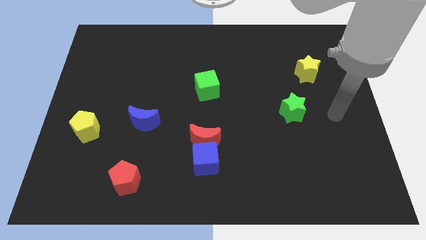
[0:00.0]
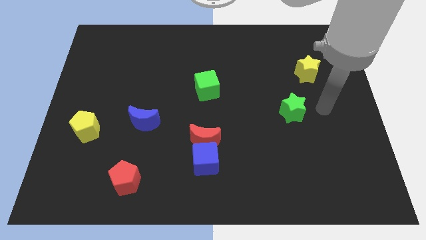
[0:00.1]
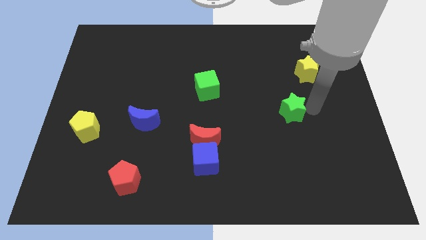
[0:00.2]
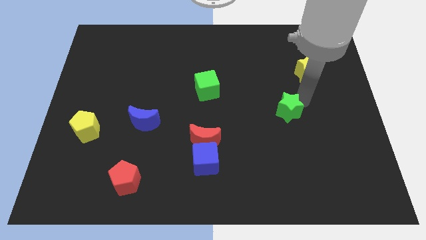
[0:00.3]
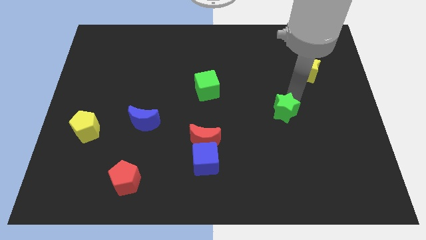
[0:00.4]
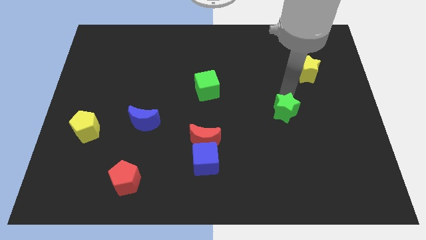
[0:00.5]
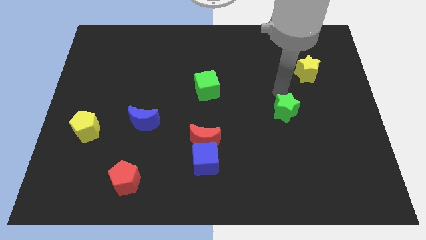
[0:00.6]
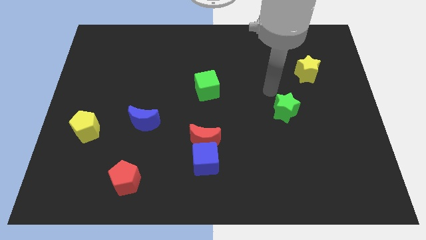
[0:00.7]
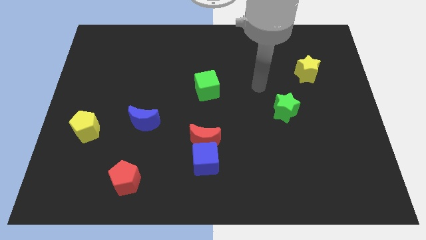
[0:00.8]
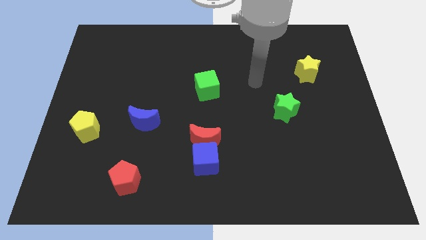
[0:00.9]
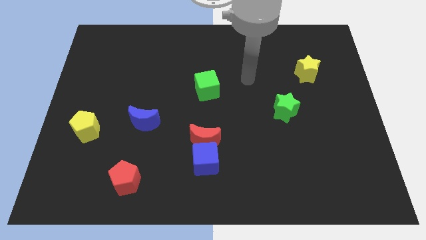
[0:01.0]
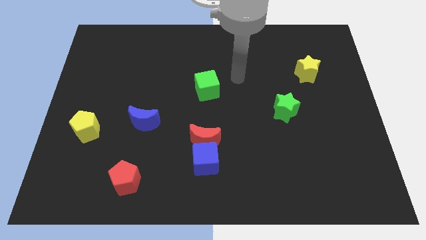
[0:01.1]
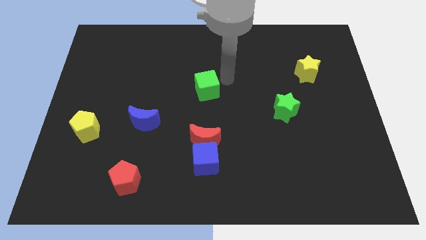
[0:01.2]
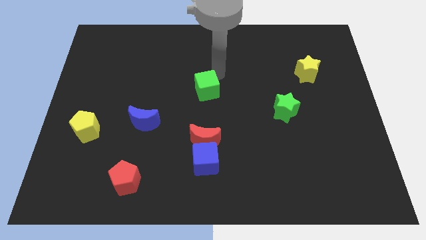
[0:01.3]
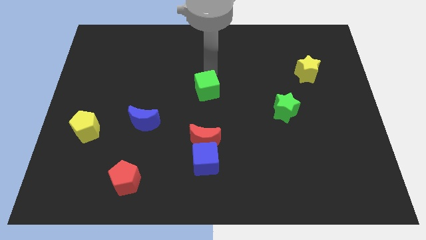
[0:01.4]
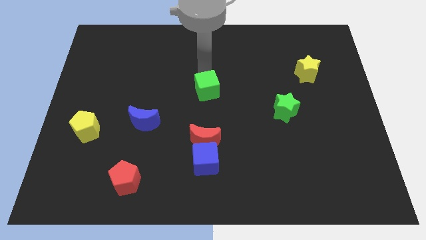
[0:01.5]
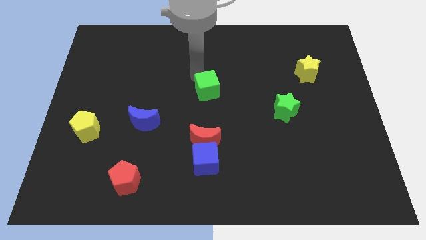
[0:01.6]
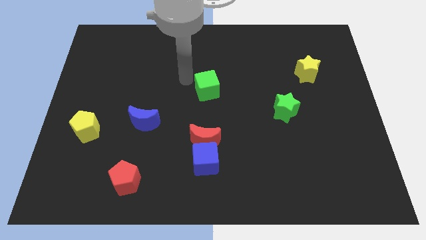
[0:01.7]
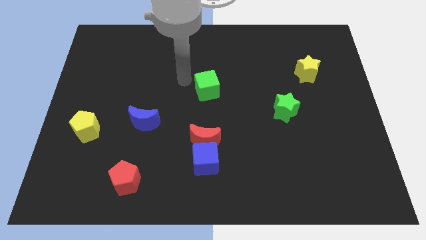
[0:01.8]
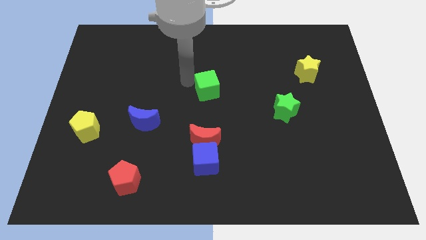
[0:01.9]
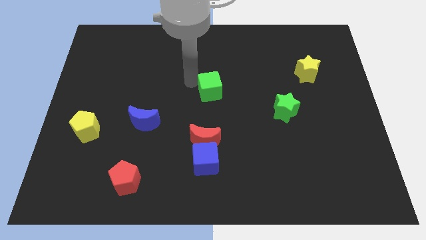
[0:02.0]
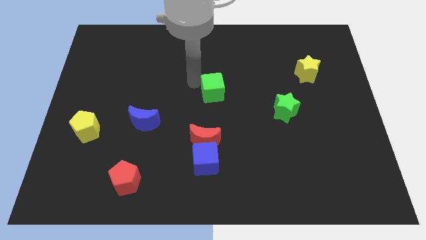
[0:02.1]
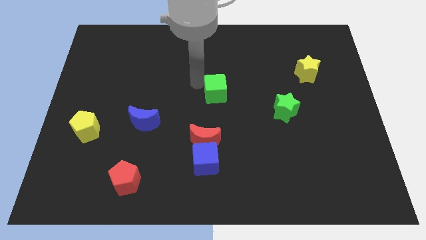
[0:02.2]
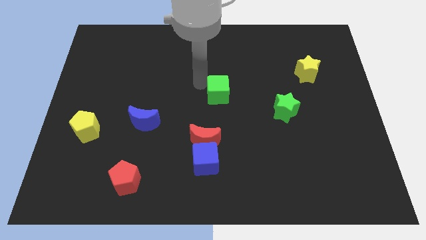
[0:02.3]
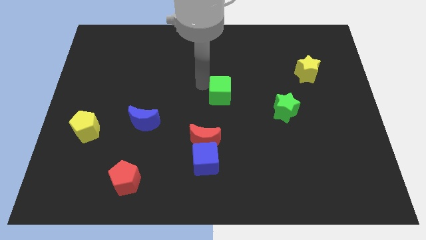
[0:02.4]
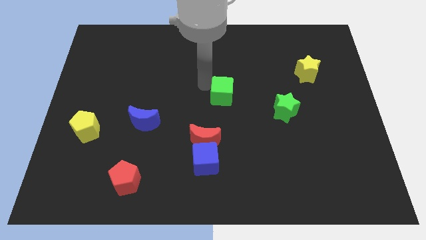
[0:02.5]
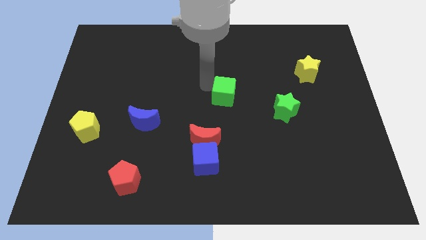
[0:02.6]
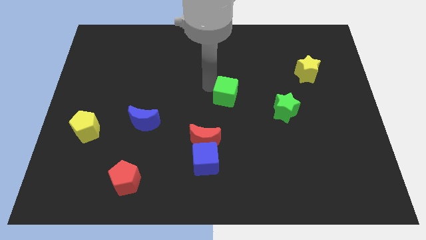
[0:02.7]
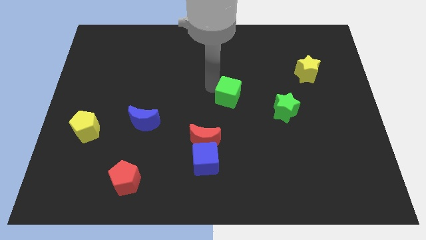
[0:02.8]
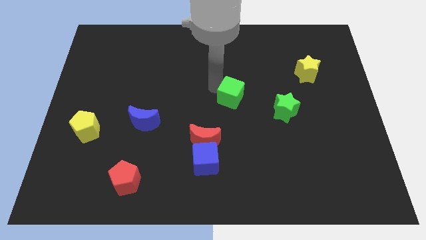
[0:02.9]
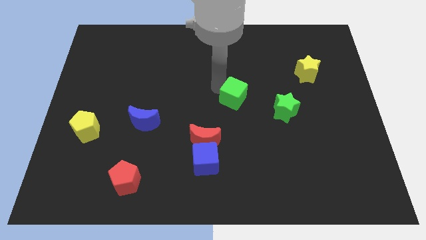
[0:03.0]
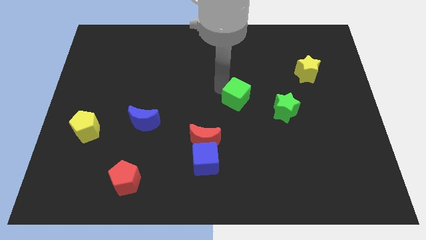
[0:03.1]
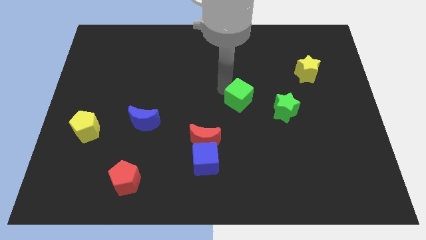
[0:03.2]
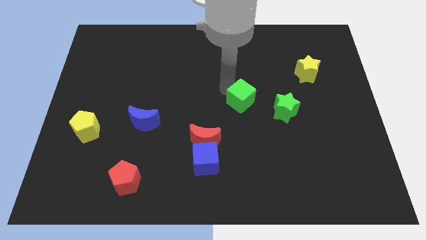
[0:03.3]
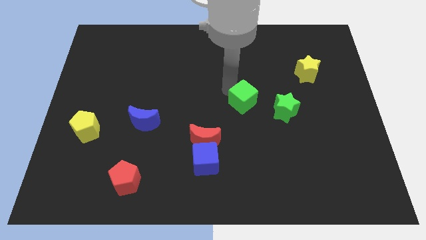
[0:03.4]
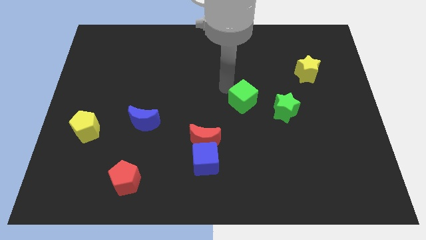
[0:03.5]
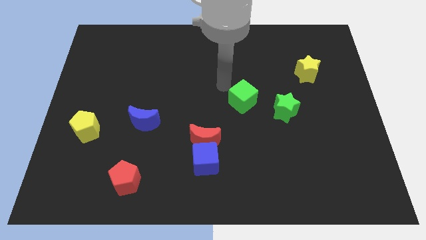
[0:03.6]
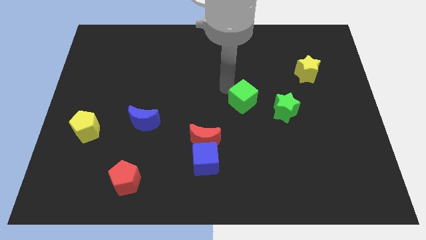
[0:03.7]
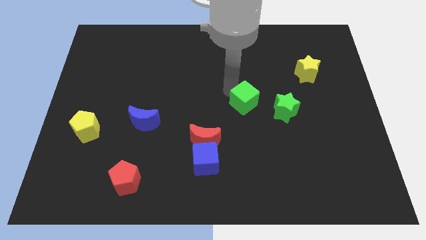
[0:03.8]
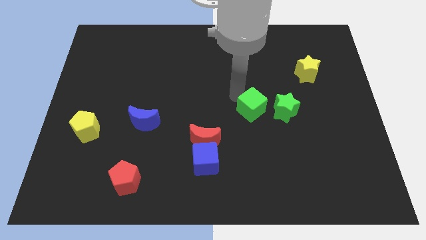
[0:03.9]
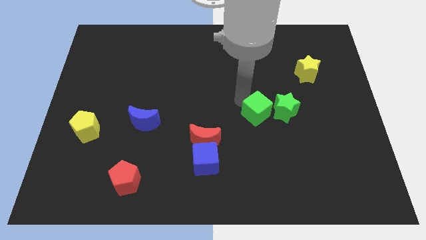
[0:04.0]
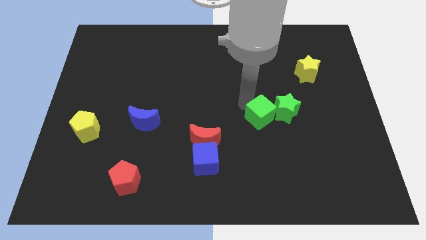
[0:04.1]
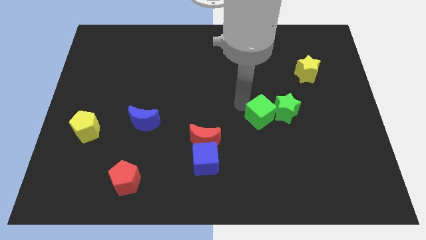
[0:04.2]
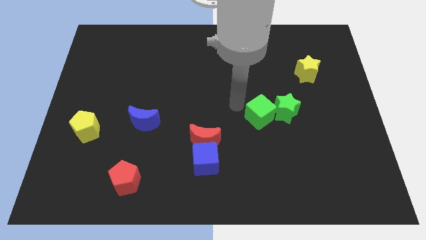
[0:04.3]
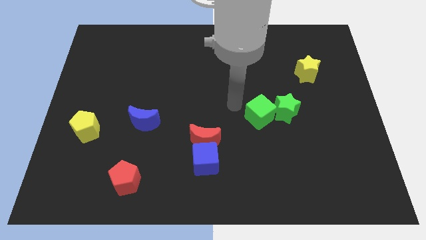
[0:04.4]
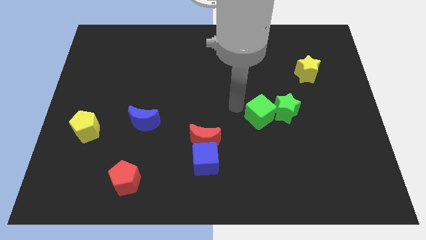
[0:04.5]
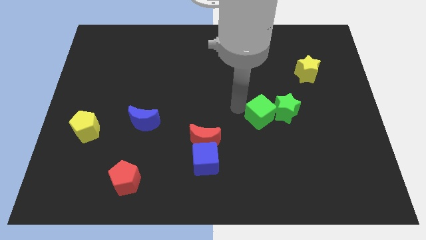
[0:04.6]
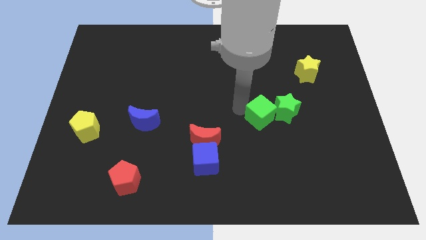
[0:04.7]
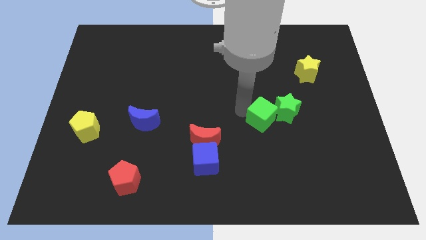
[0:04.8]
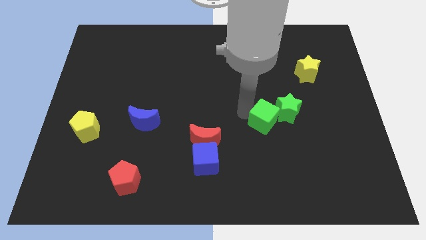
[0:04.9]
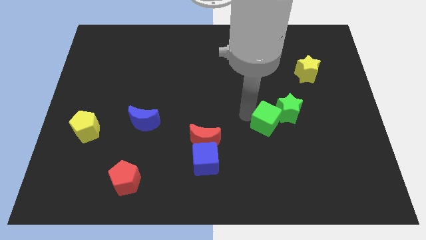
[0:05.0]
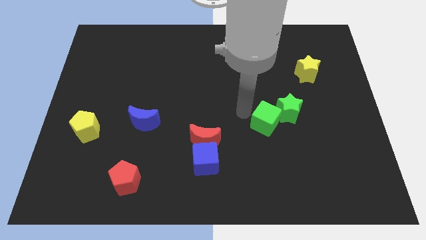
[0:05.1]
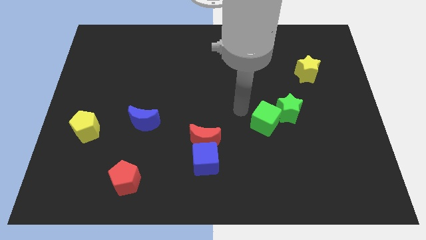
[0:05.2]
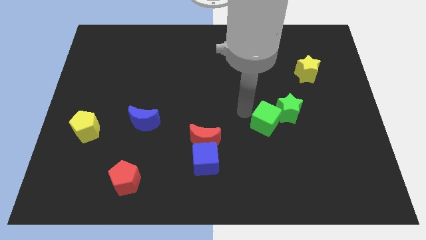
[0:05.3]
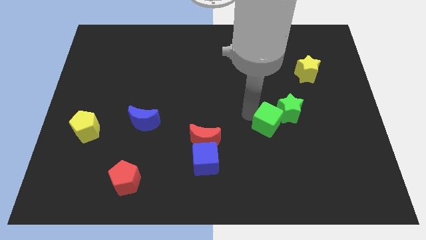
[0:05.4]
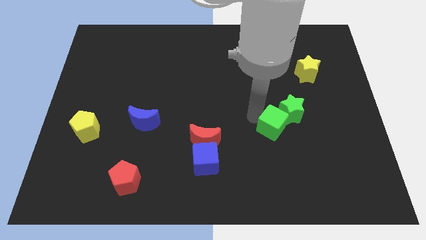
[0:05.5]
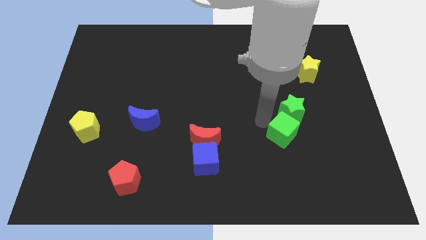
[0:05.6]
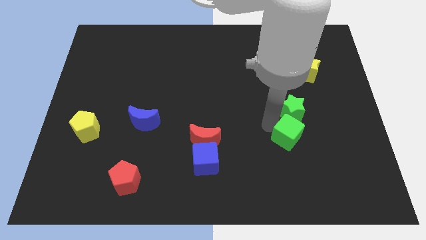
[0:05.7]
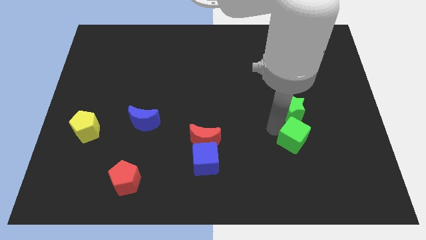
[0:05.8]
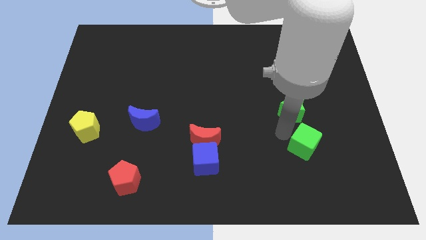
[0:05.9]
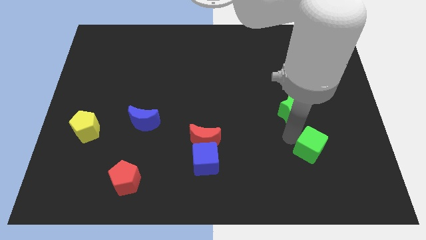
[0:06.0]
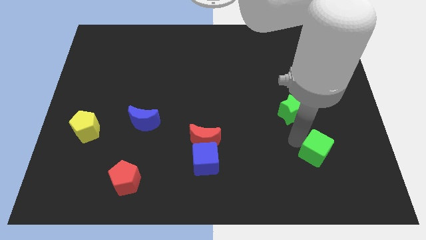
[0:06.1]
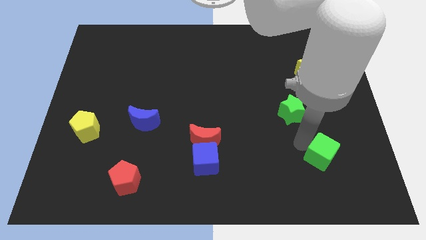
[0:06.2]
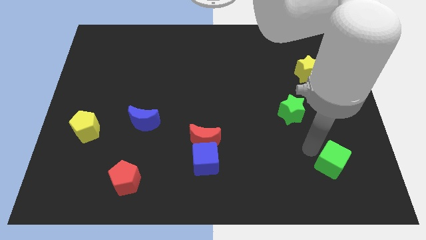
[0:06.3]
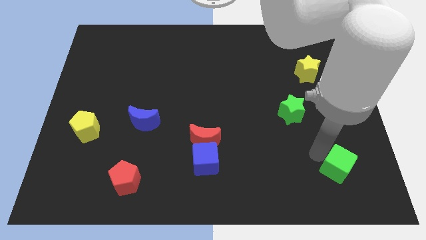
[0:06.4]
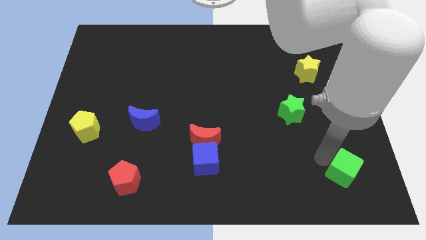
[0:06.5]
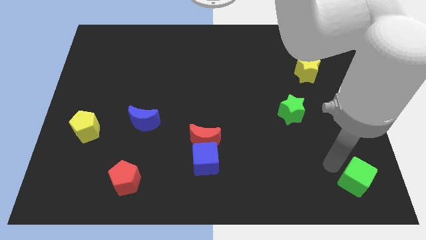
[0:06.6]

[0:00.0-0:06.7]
slide the green cube to the bottom right of the board

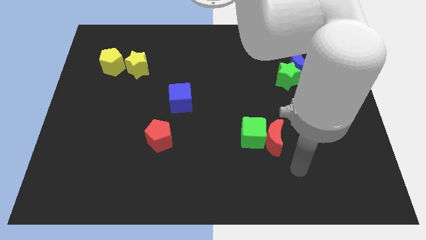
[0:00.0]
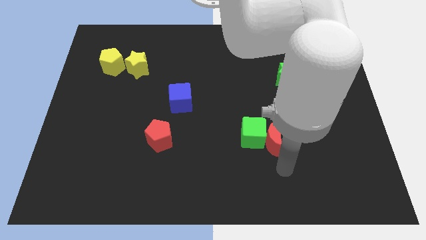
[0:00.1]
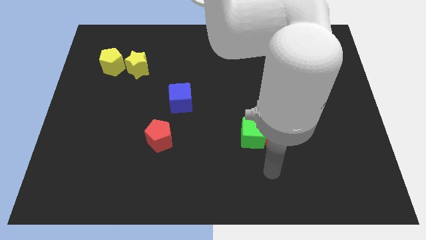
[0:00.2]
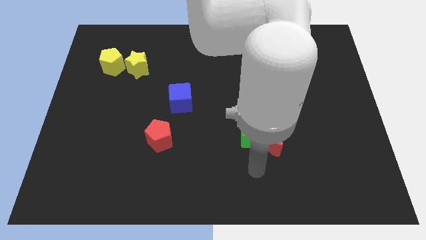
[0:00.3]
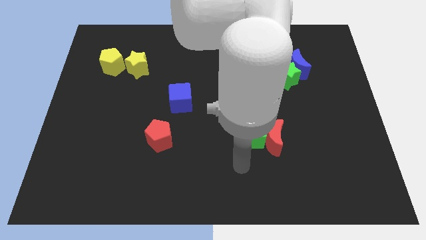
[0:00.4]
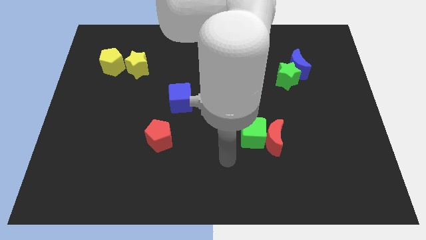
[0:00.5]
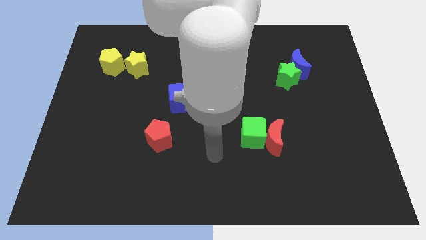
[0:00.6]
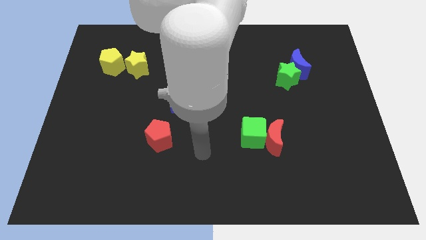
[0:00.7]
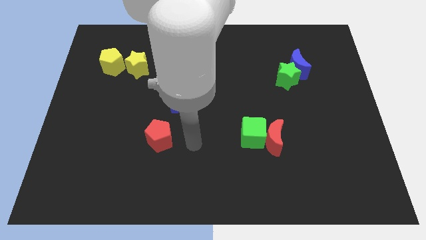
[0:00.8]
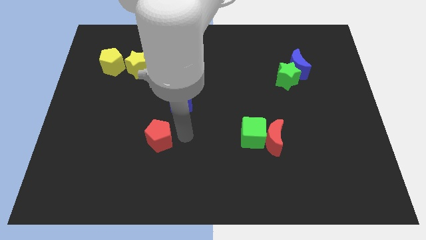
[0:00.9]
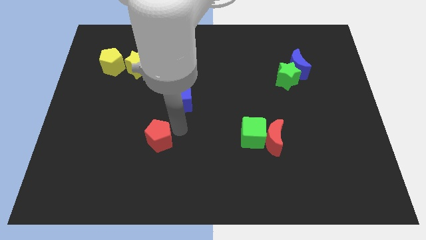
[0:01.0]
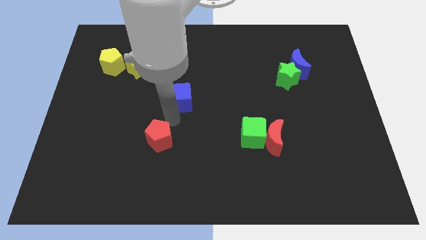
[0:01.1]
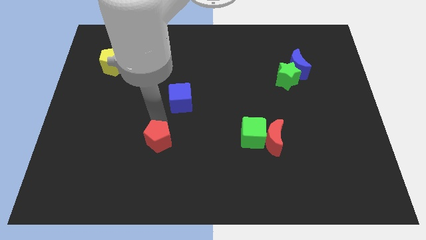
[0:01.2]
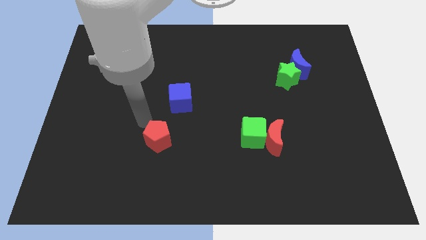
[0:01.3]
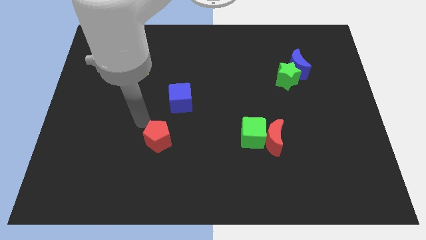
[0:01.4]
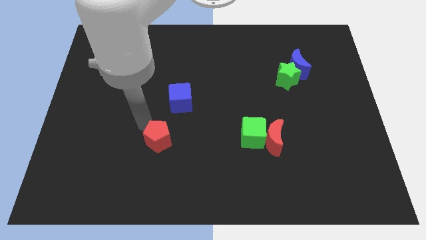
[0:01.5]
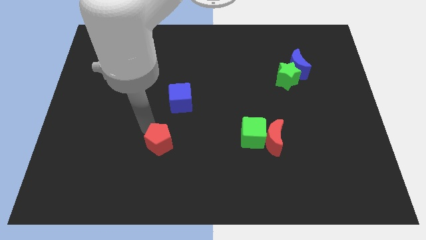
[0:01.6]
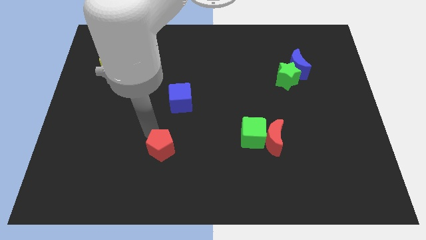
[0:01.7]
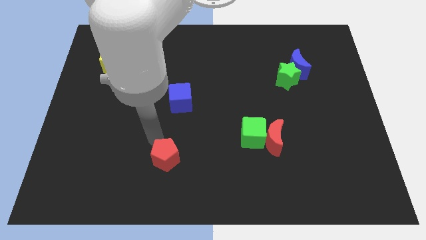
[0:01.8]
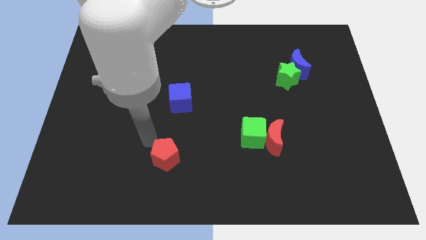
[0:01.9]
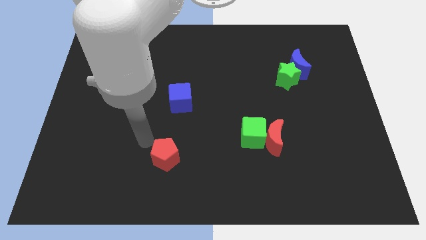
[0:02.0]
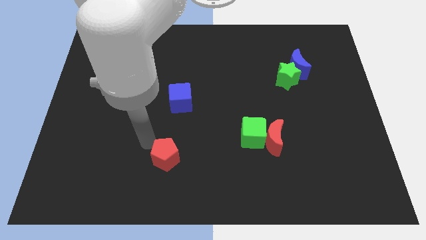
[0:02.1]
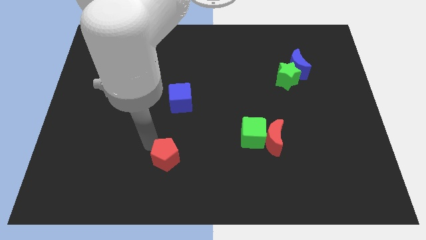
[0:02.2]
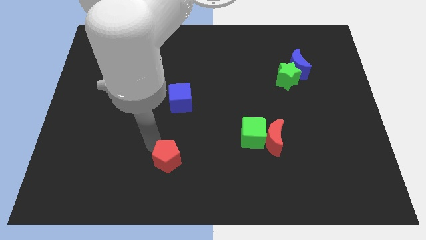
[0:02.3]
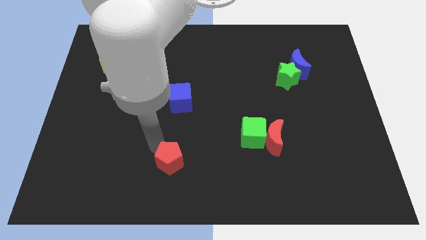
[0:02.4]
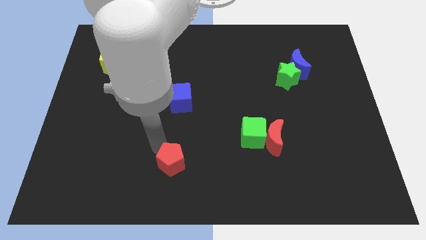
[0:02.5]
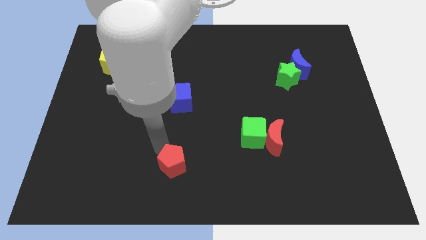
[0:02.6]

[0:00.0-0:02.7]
push the red pentagon to the bottom side
